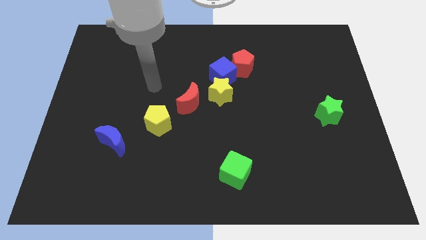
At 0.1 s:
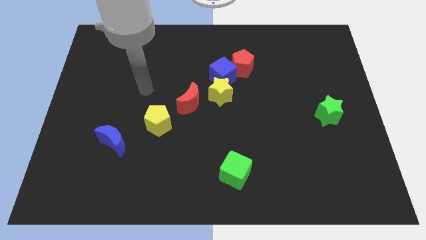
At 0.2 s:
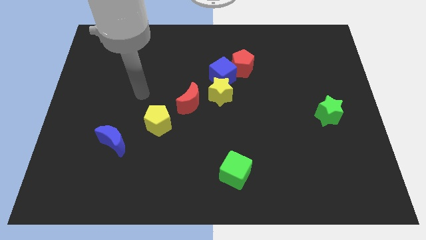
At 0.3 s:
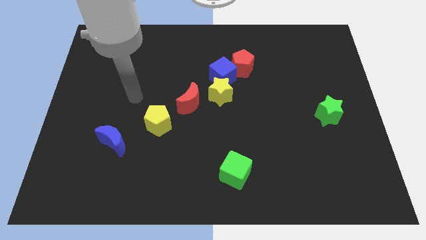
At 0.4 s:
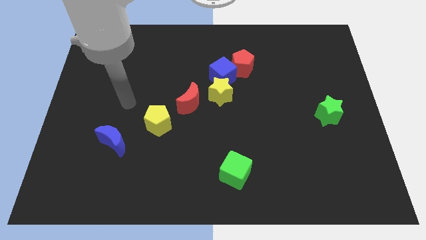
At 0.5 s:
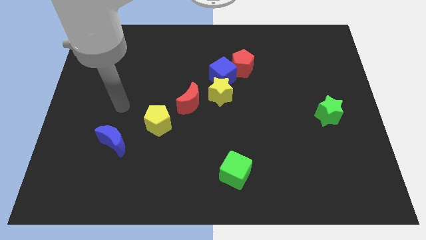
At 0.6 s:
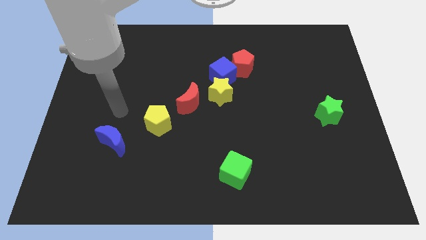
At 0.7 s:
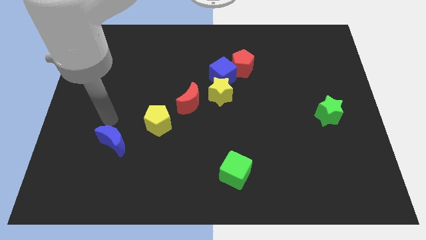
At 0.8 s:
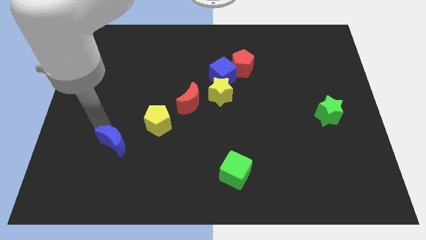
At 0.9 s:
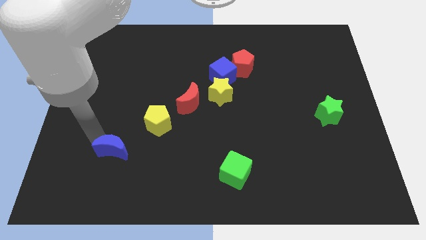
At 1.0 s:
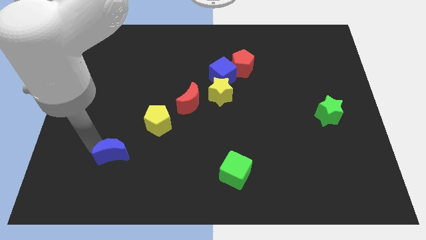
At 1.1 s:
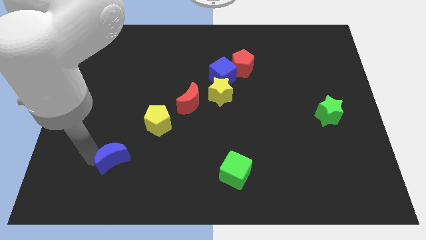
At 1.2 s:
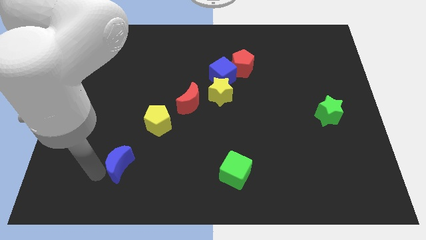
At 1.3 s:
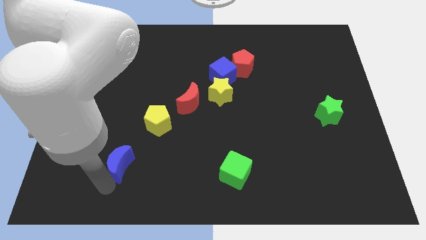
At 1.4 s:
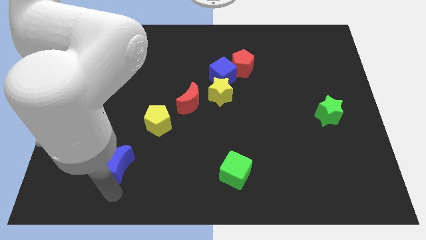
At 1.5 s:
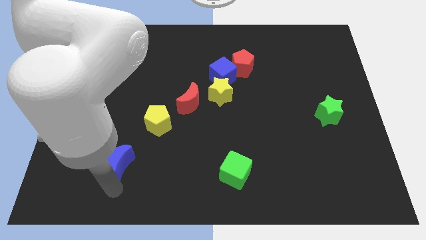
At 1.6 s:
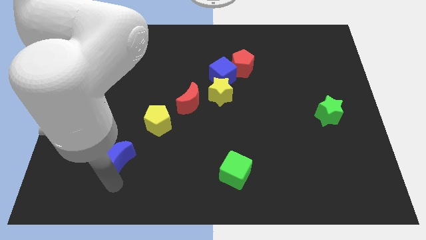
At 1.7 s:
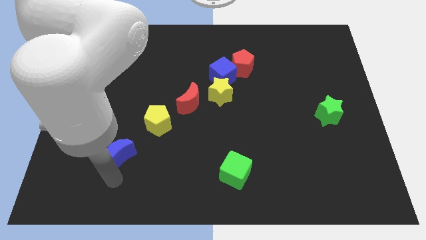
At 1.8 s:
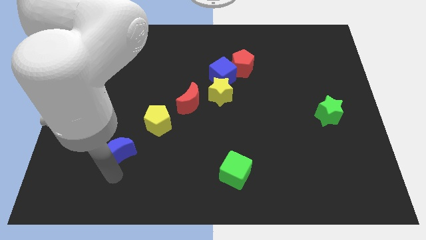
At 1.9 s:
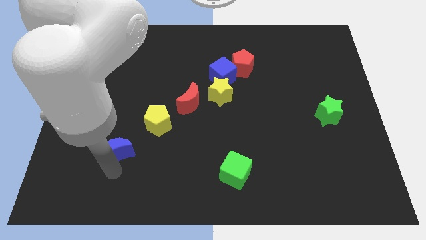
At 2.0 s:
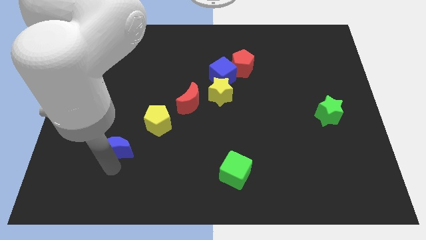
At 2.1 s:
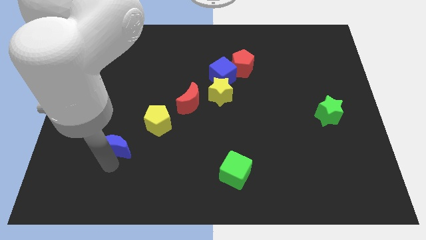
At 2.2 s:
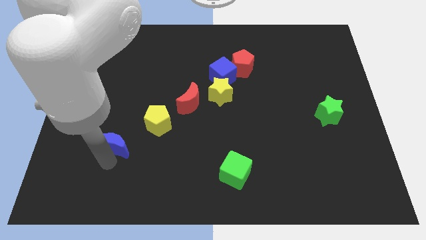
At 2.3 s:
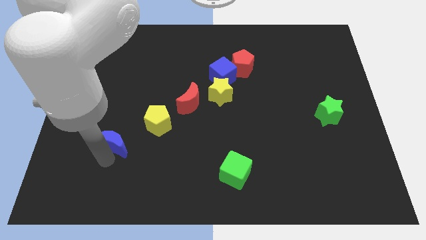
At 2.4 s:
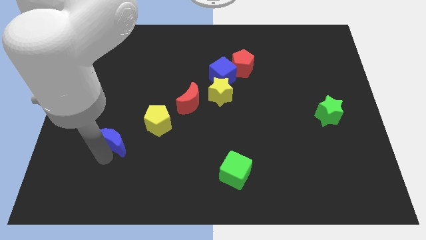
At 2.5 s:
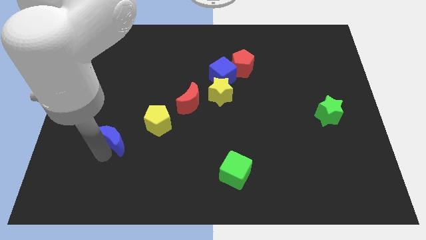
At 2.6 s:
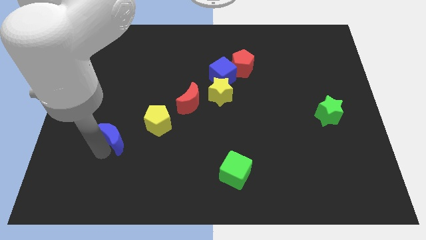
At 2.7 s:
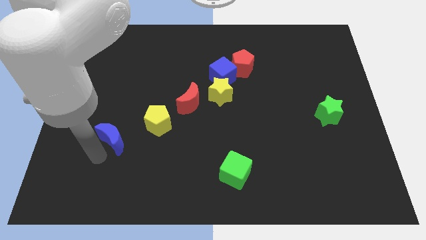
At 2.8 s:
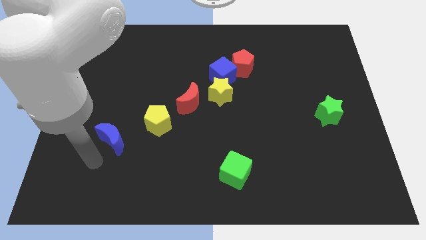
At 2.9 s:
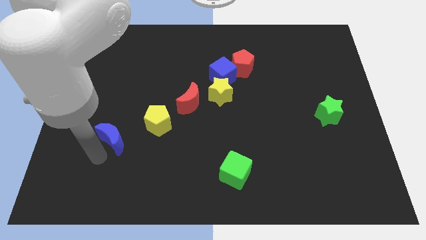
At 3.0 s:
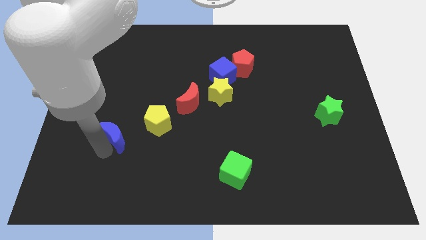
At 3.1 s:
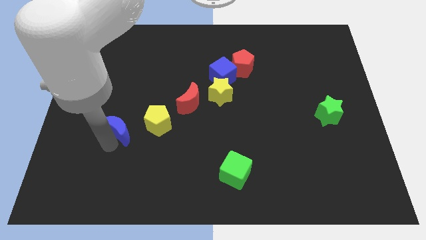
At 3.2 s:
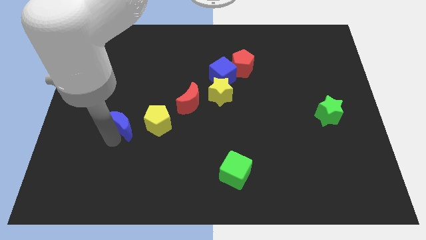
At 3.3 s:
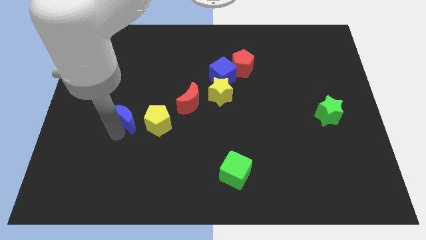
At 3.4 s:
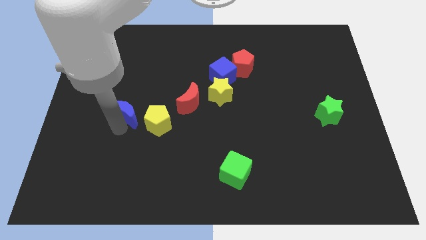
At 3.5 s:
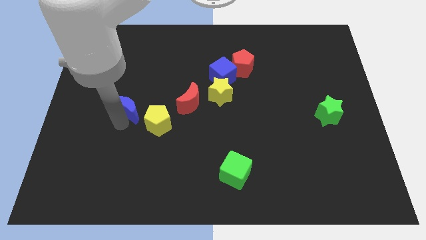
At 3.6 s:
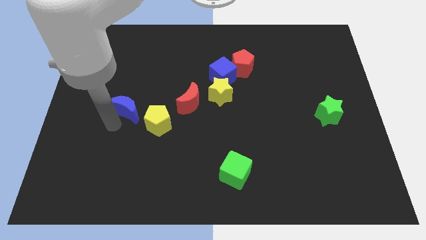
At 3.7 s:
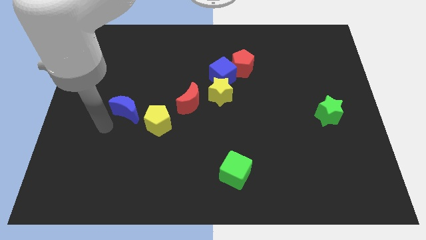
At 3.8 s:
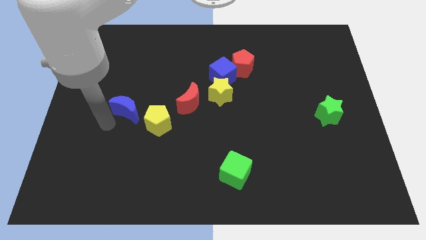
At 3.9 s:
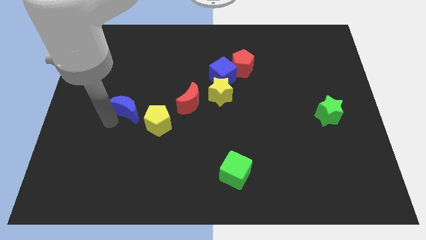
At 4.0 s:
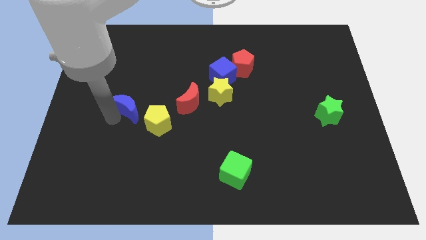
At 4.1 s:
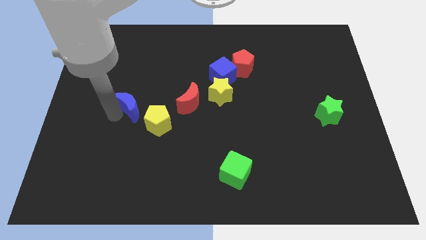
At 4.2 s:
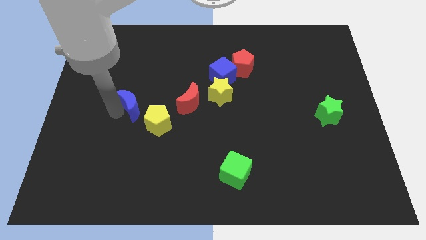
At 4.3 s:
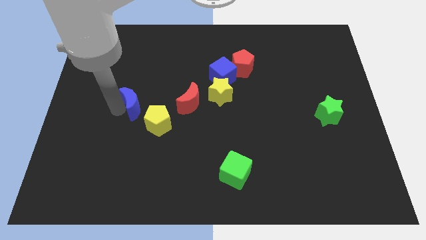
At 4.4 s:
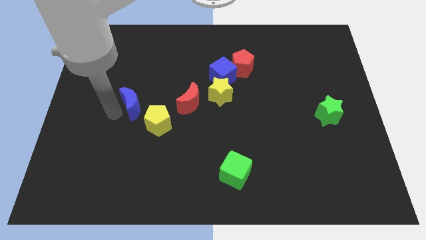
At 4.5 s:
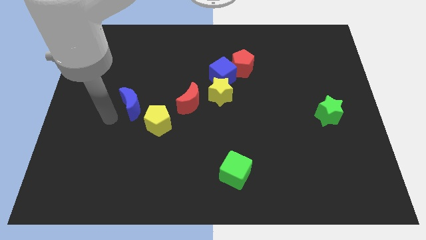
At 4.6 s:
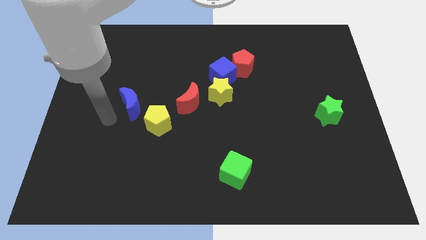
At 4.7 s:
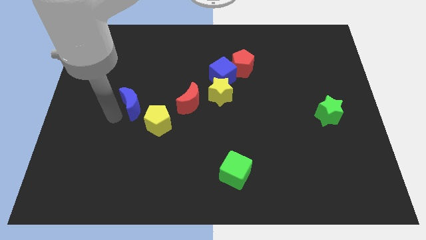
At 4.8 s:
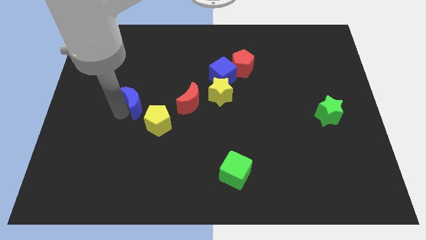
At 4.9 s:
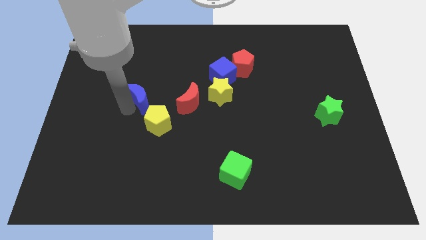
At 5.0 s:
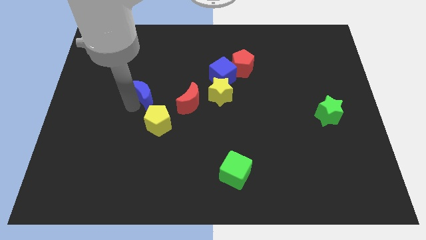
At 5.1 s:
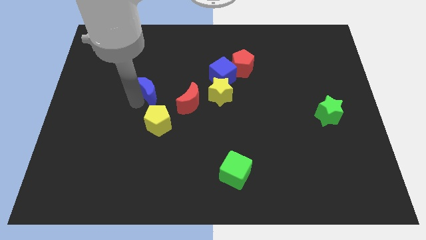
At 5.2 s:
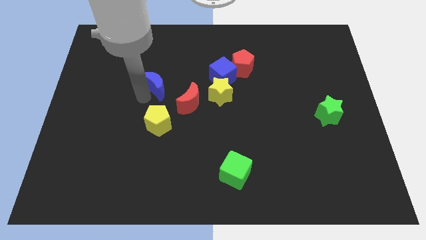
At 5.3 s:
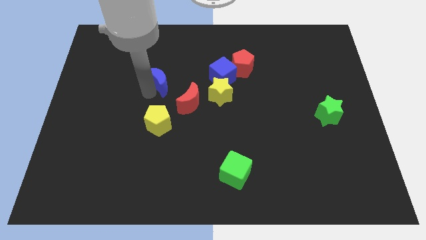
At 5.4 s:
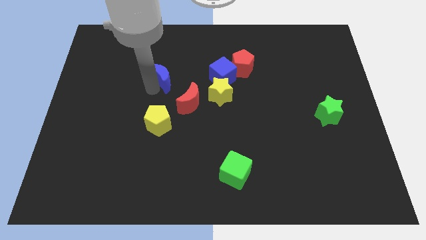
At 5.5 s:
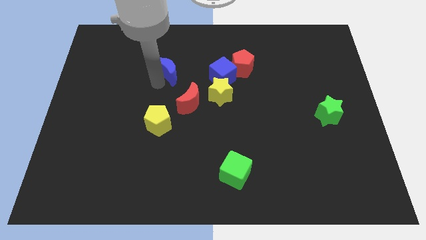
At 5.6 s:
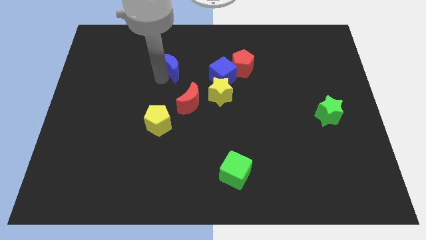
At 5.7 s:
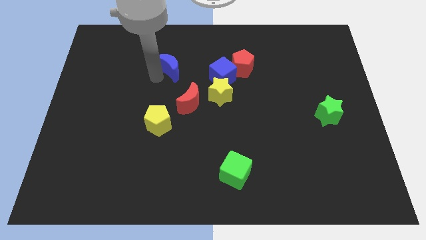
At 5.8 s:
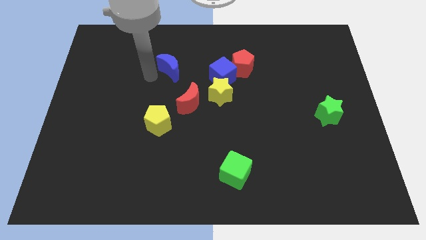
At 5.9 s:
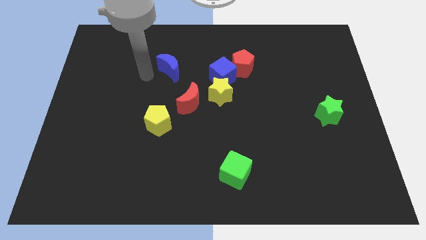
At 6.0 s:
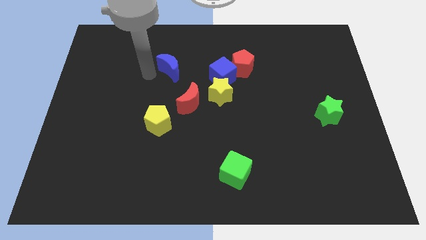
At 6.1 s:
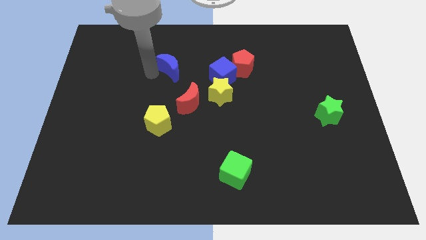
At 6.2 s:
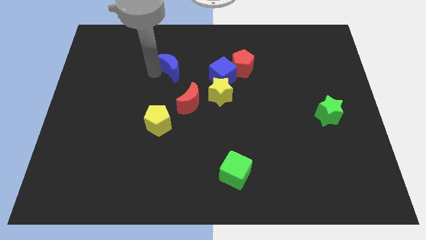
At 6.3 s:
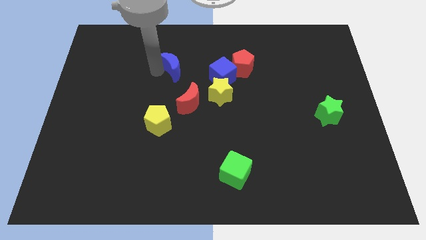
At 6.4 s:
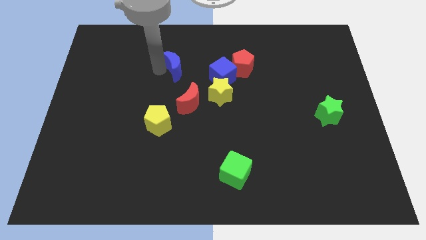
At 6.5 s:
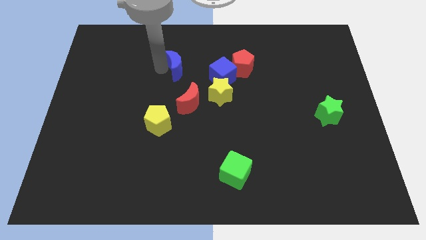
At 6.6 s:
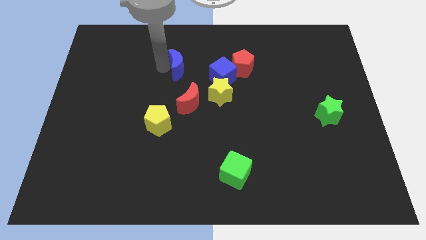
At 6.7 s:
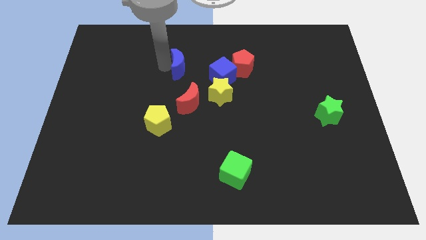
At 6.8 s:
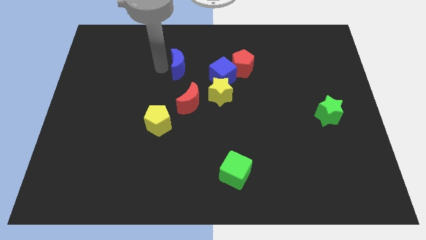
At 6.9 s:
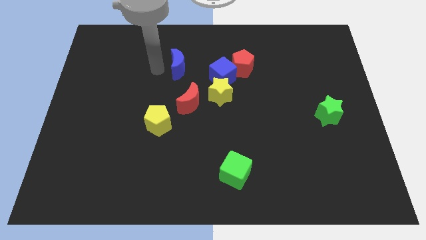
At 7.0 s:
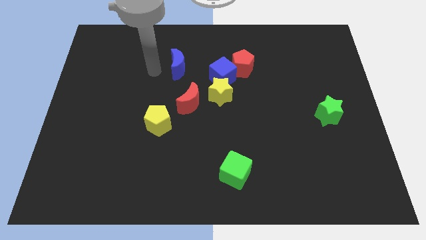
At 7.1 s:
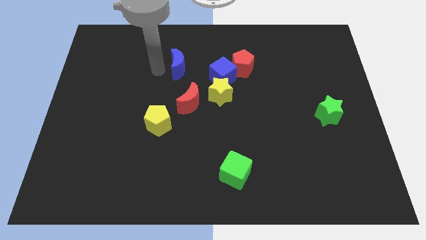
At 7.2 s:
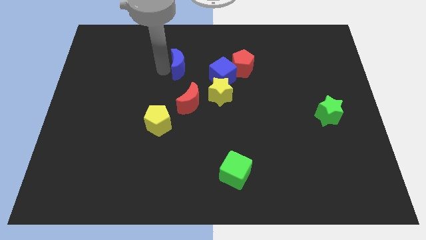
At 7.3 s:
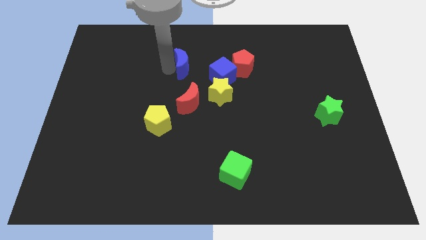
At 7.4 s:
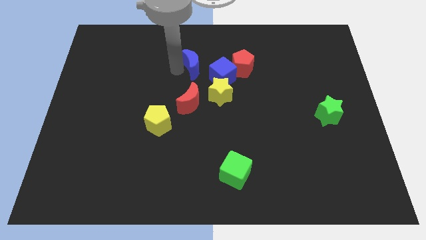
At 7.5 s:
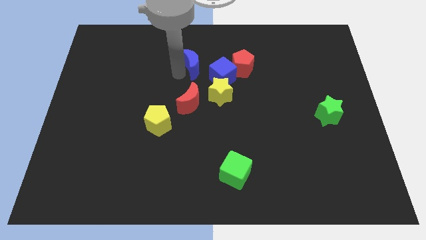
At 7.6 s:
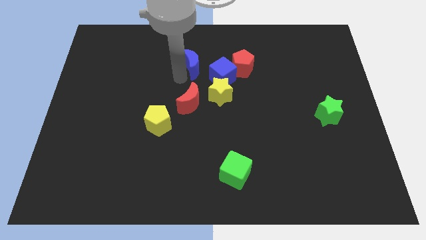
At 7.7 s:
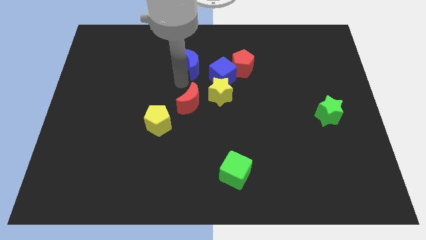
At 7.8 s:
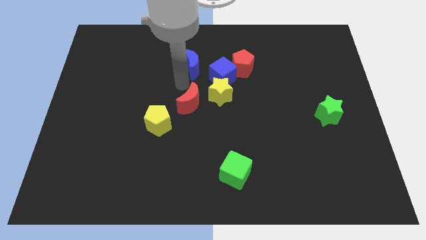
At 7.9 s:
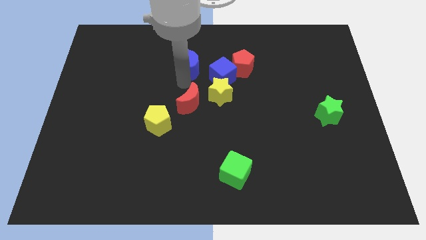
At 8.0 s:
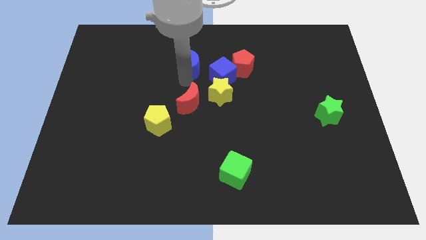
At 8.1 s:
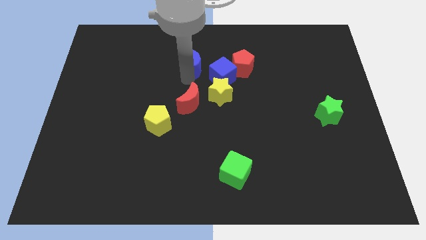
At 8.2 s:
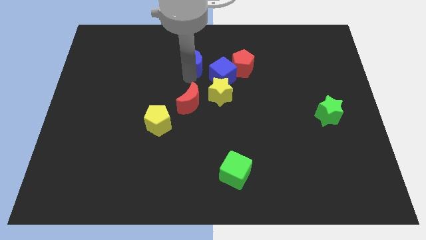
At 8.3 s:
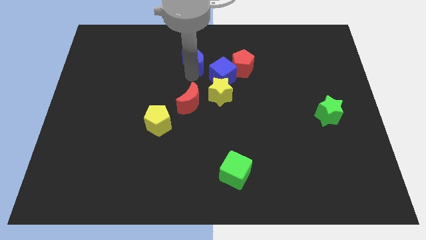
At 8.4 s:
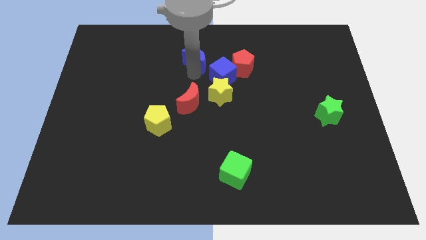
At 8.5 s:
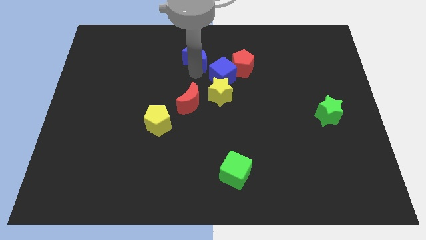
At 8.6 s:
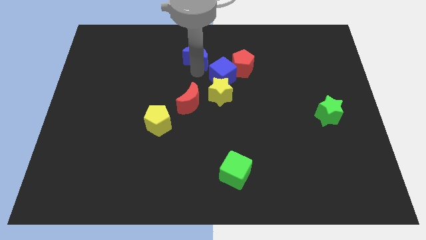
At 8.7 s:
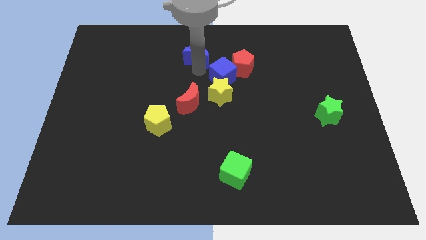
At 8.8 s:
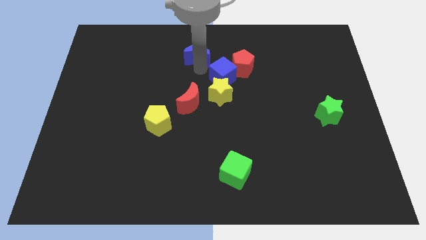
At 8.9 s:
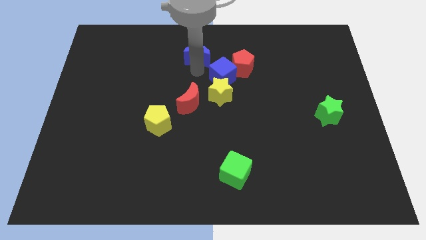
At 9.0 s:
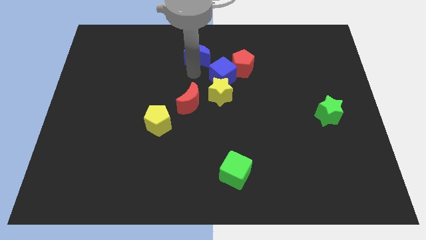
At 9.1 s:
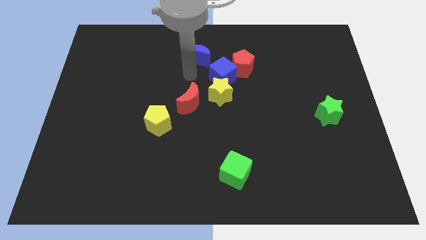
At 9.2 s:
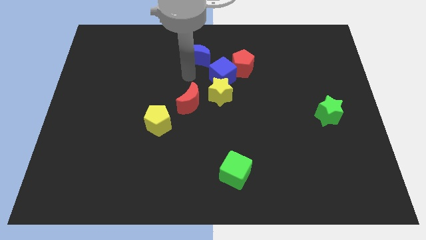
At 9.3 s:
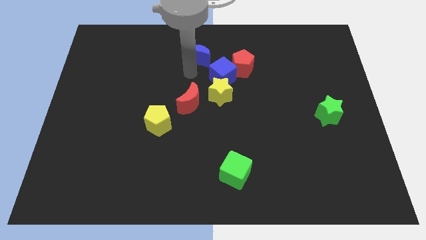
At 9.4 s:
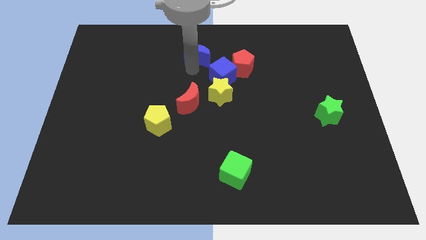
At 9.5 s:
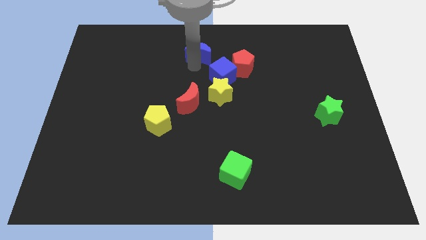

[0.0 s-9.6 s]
move the blue moon to the towards your base
